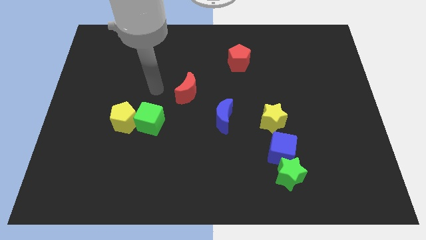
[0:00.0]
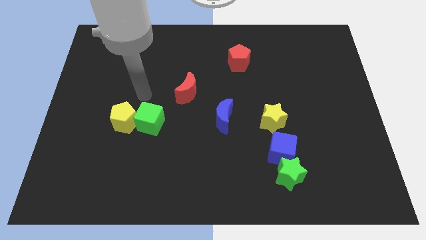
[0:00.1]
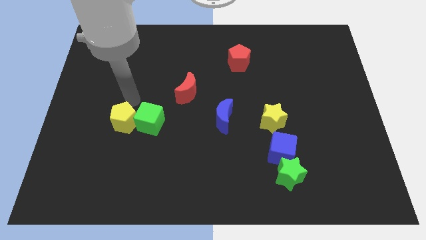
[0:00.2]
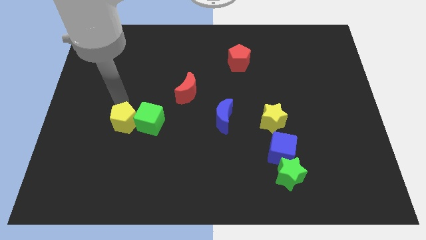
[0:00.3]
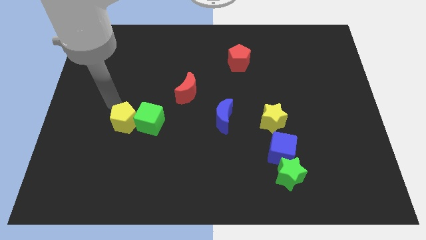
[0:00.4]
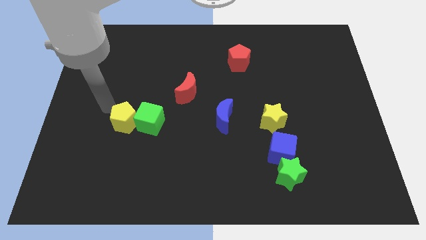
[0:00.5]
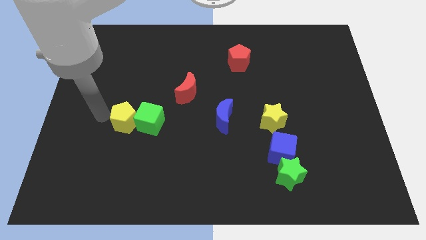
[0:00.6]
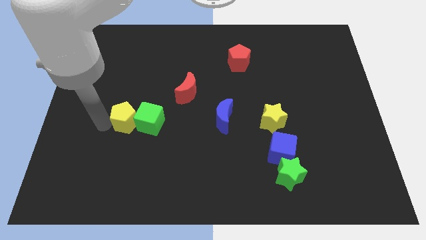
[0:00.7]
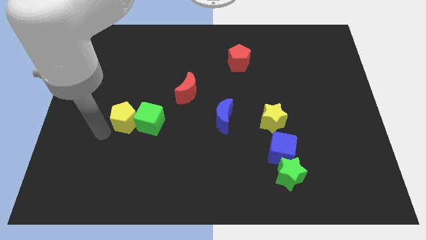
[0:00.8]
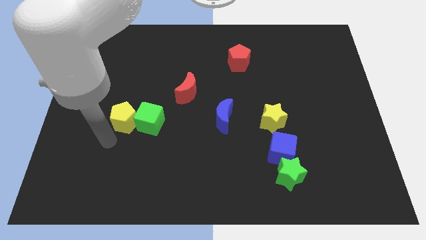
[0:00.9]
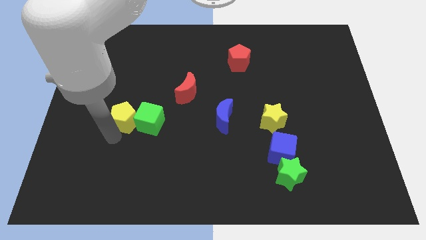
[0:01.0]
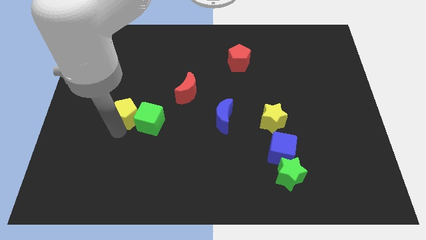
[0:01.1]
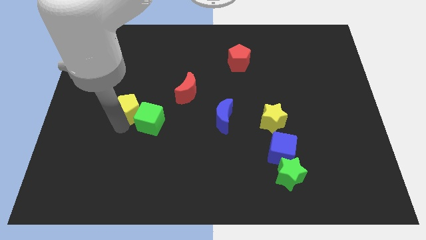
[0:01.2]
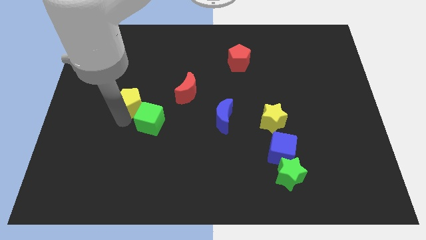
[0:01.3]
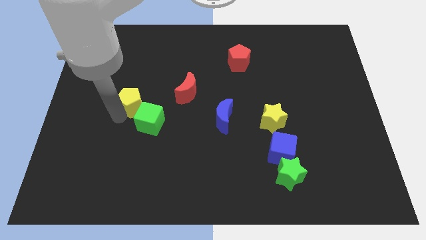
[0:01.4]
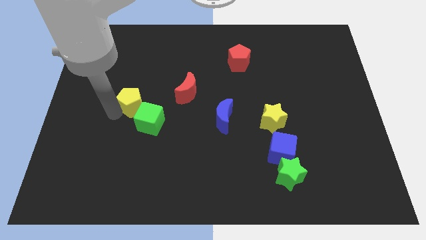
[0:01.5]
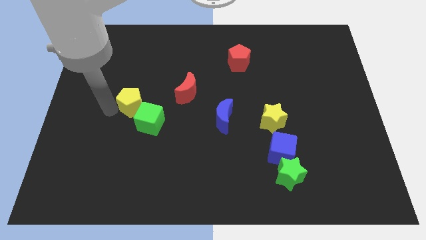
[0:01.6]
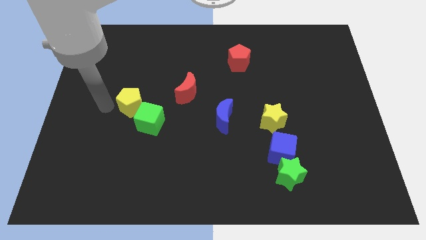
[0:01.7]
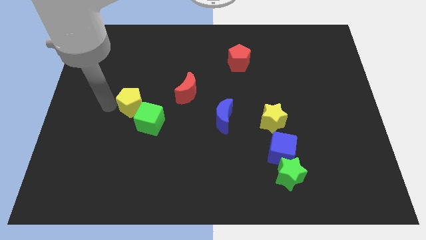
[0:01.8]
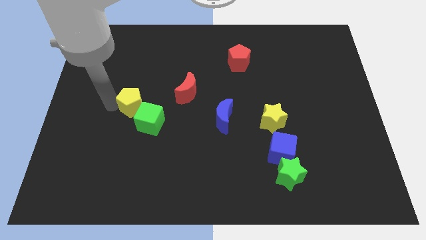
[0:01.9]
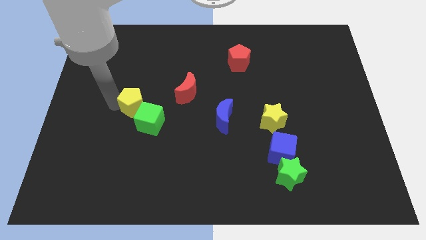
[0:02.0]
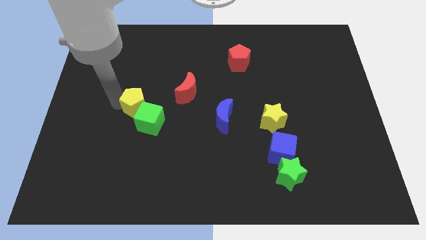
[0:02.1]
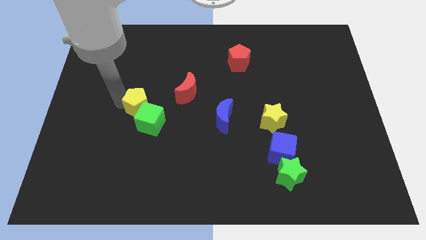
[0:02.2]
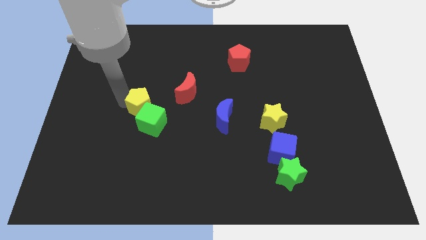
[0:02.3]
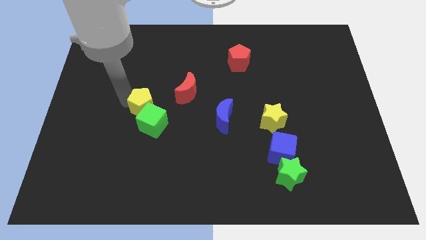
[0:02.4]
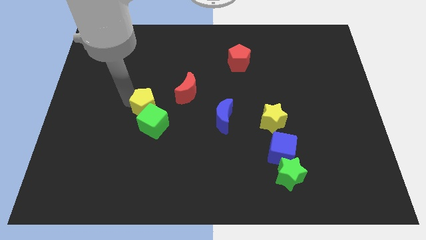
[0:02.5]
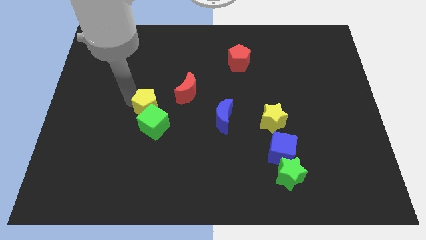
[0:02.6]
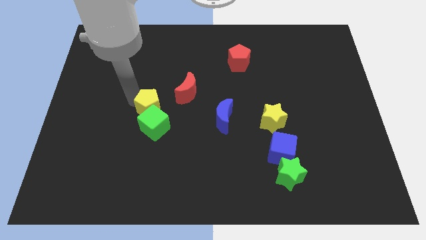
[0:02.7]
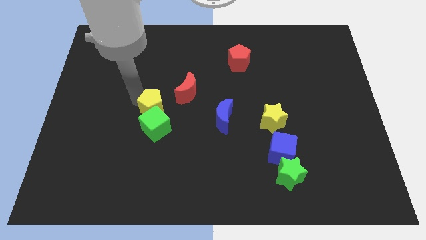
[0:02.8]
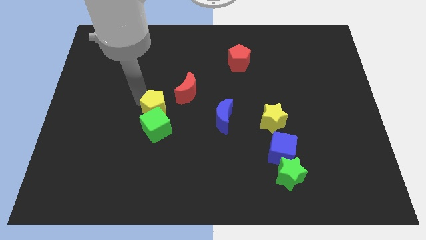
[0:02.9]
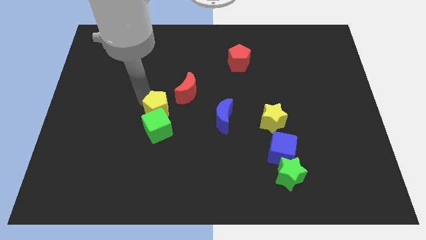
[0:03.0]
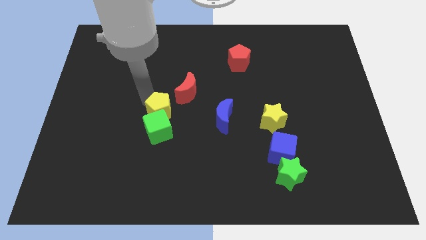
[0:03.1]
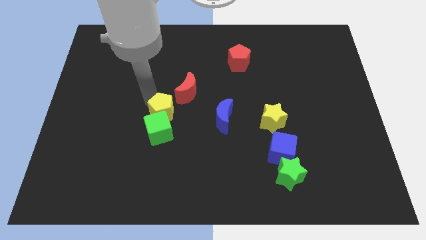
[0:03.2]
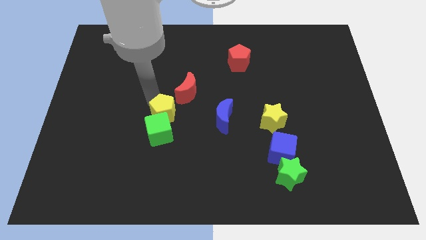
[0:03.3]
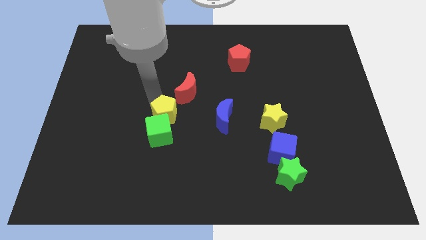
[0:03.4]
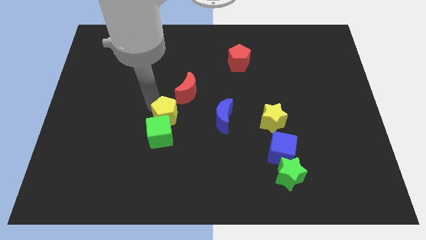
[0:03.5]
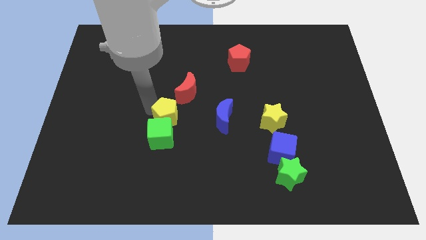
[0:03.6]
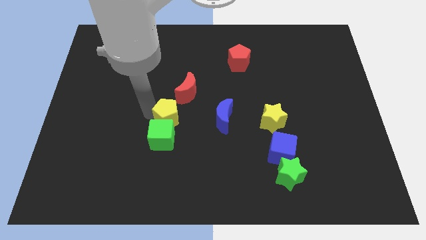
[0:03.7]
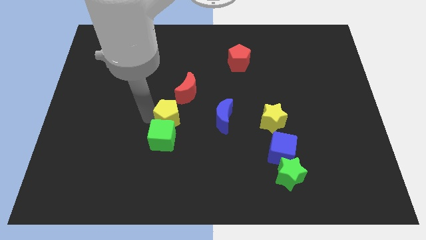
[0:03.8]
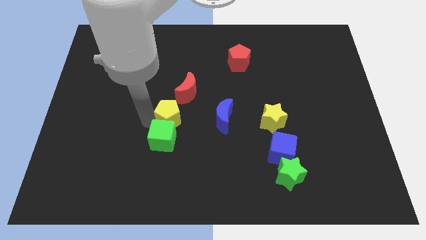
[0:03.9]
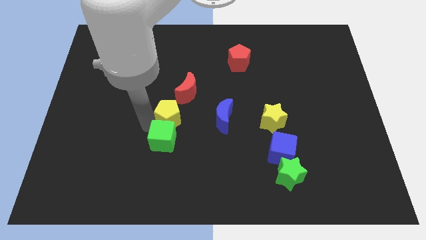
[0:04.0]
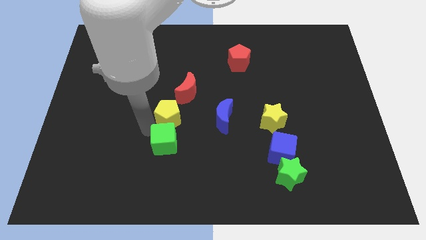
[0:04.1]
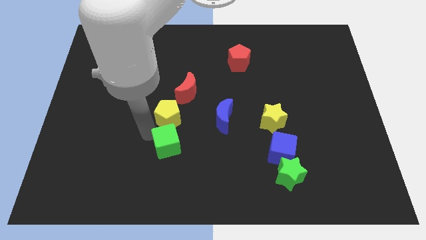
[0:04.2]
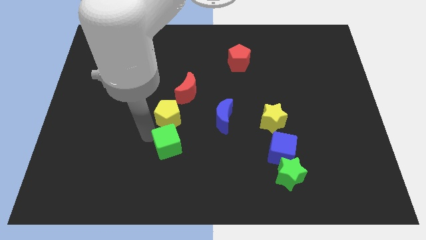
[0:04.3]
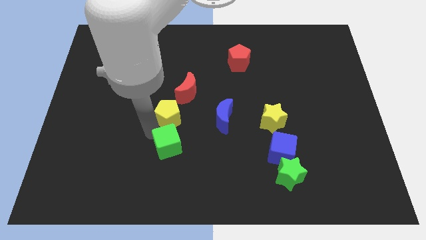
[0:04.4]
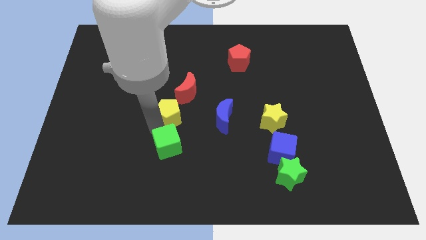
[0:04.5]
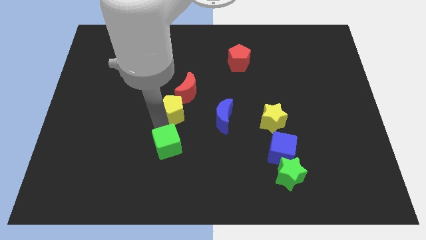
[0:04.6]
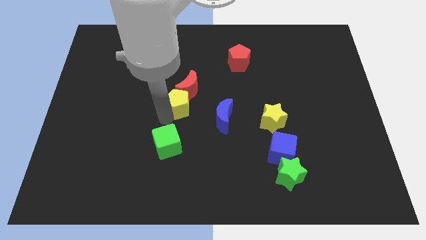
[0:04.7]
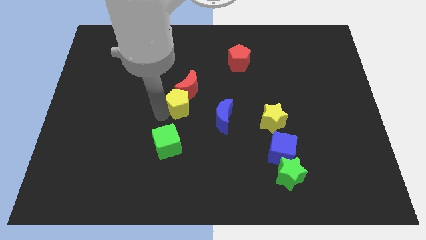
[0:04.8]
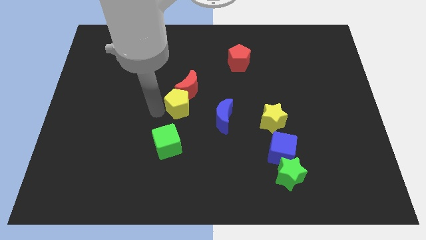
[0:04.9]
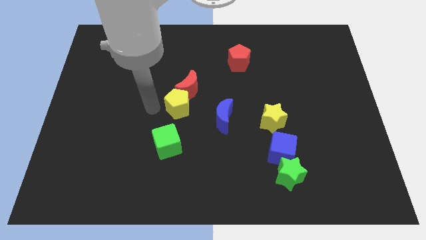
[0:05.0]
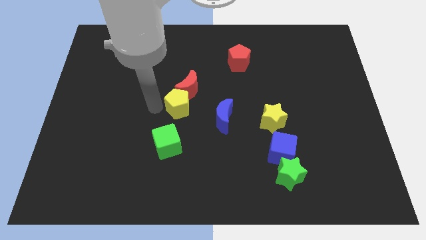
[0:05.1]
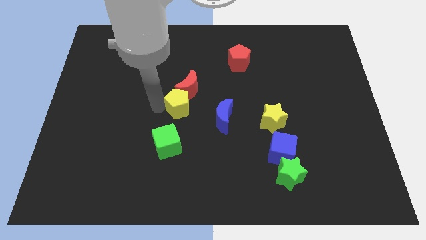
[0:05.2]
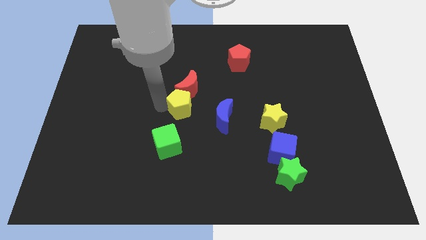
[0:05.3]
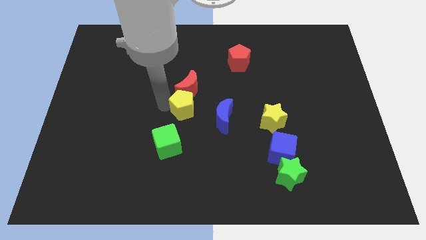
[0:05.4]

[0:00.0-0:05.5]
slide the yellow pentagon to the bottom right of the red moon

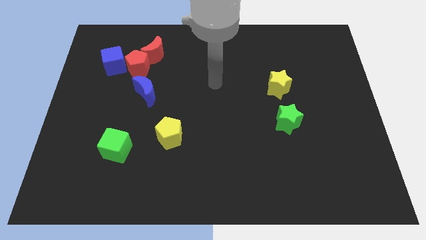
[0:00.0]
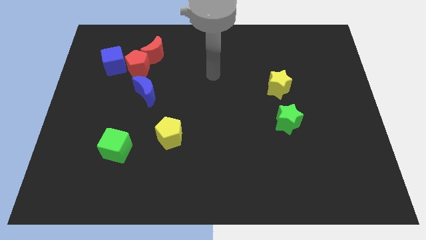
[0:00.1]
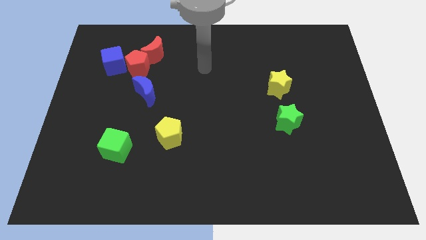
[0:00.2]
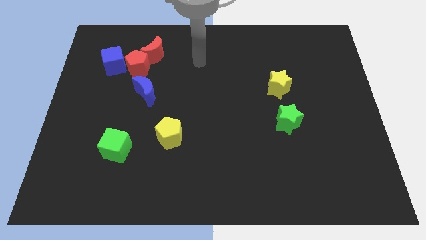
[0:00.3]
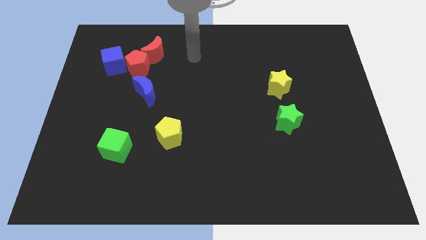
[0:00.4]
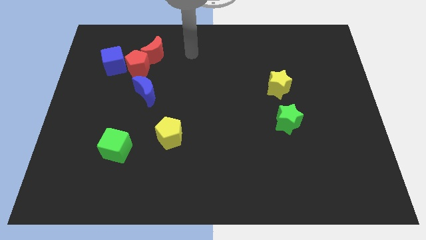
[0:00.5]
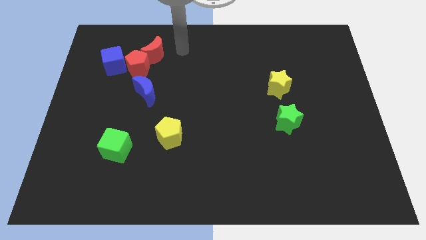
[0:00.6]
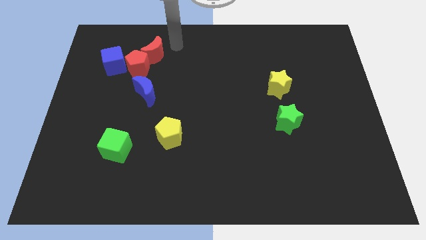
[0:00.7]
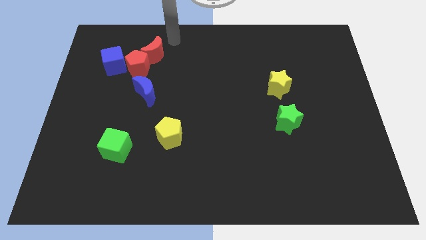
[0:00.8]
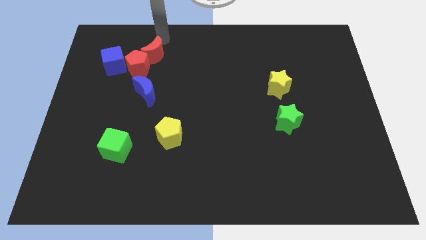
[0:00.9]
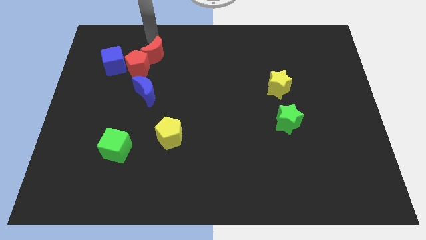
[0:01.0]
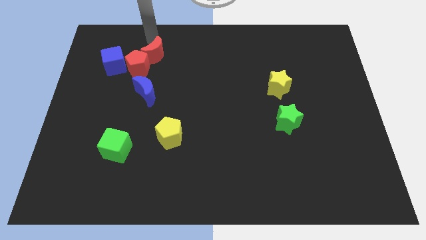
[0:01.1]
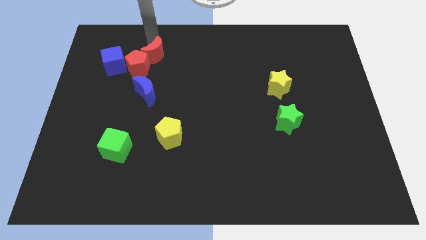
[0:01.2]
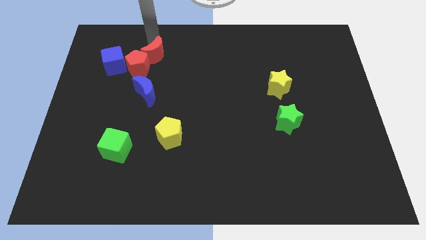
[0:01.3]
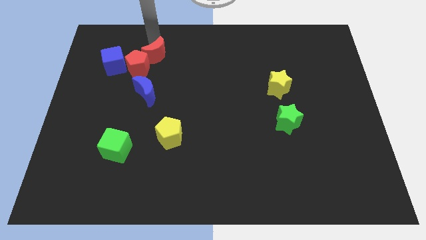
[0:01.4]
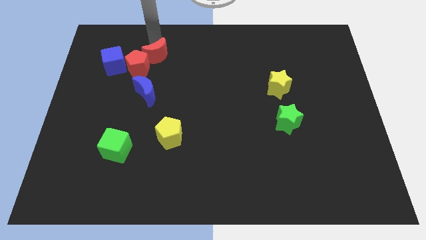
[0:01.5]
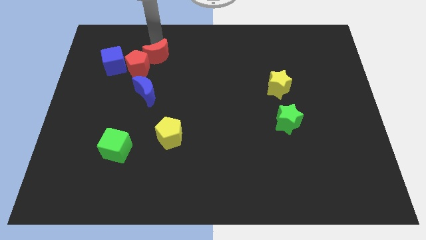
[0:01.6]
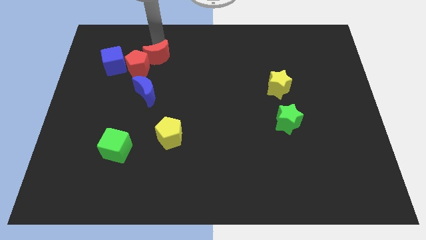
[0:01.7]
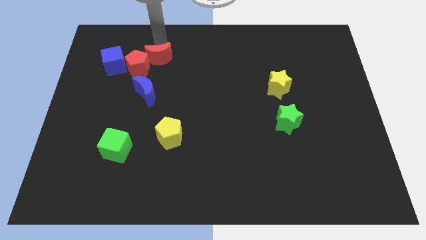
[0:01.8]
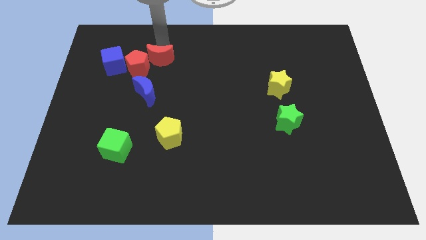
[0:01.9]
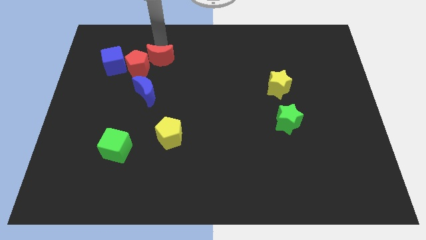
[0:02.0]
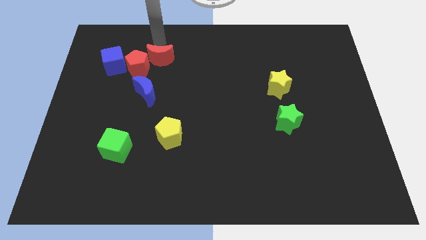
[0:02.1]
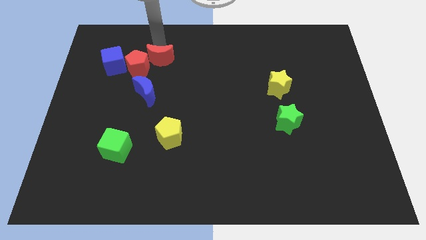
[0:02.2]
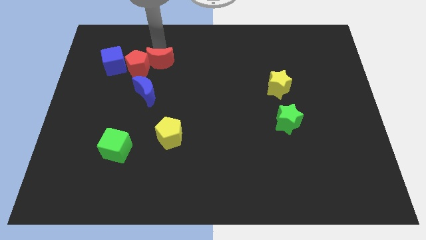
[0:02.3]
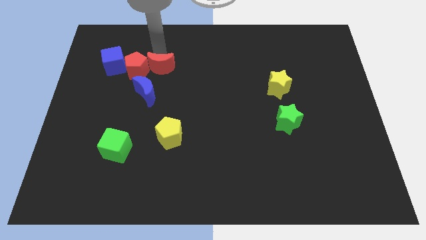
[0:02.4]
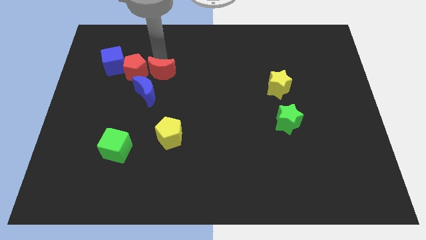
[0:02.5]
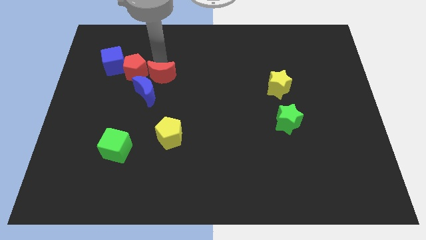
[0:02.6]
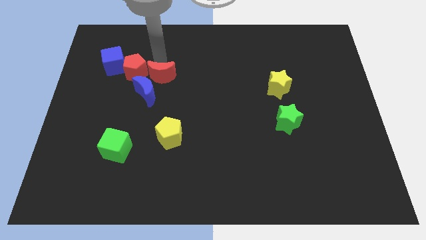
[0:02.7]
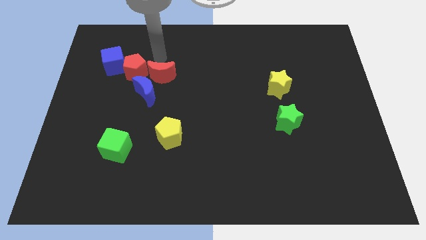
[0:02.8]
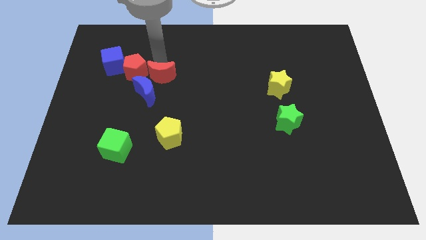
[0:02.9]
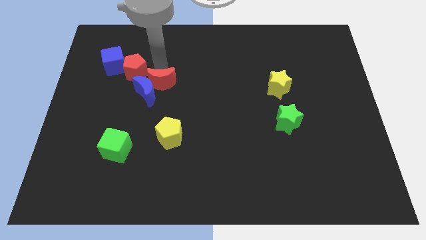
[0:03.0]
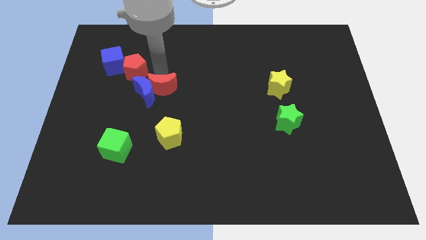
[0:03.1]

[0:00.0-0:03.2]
move the red moon to the bottom right of the blue moon
